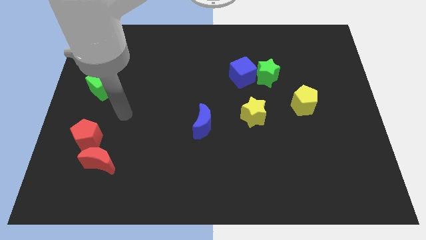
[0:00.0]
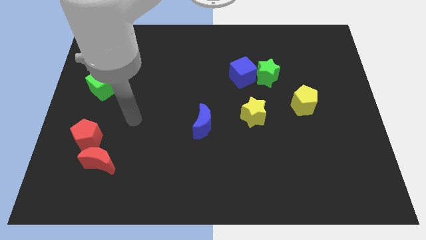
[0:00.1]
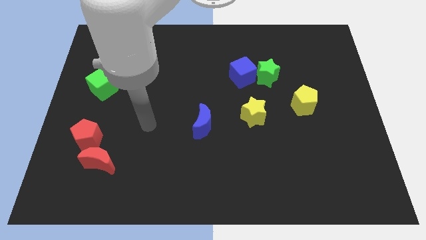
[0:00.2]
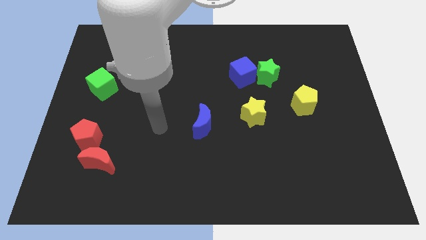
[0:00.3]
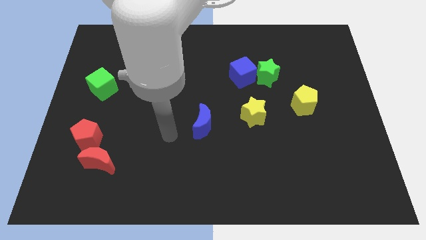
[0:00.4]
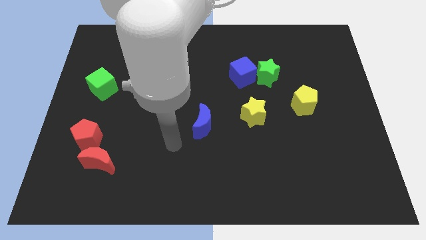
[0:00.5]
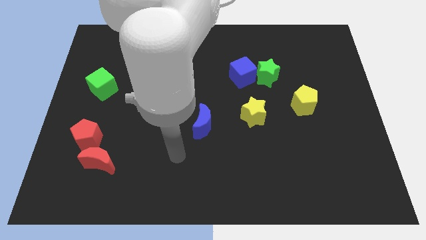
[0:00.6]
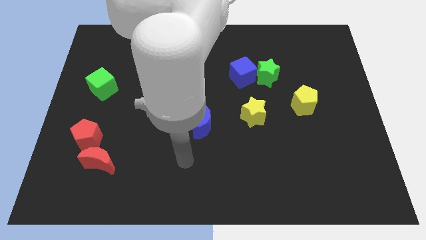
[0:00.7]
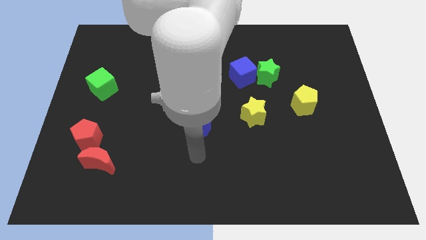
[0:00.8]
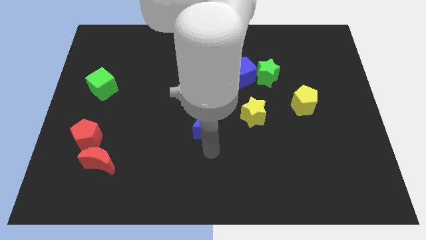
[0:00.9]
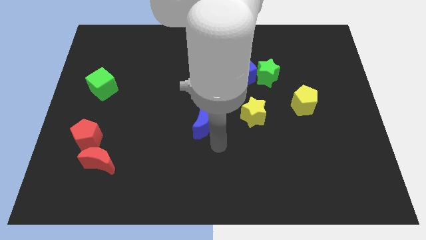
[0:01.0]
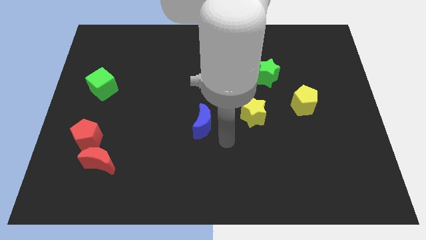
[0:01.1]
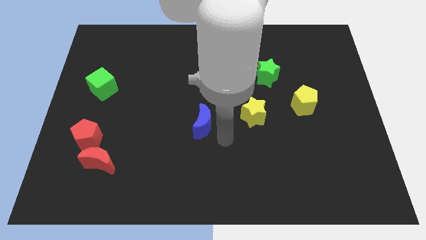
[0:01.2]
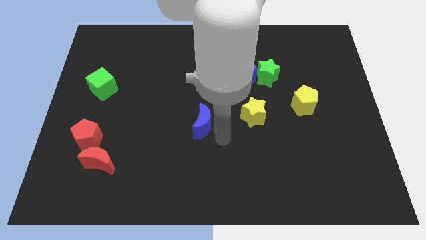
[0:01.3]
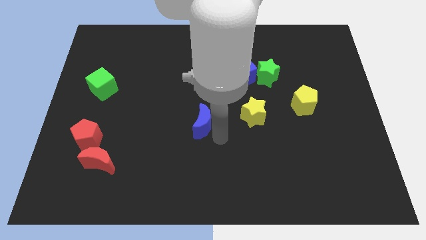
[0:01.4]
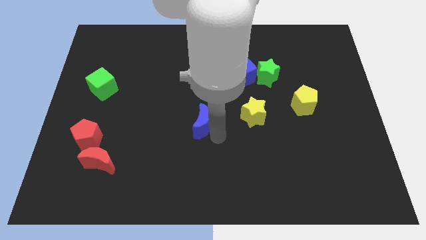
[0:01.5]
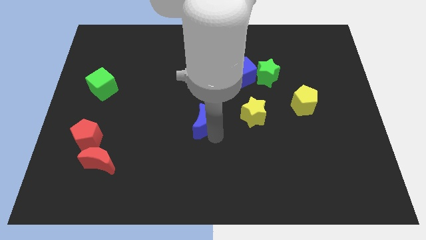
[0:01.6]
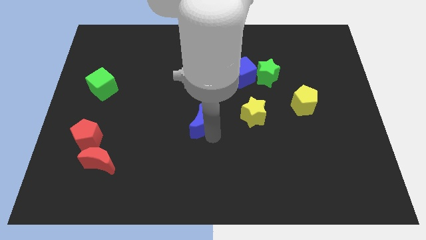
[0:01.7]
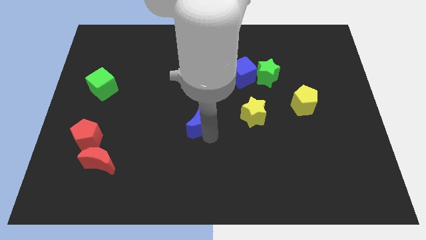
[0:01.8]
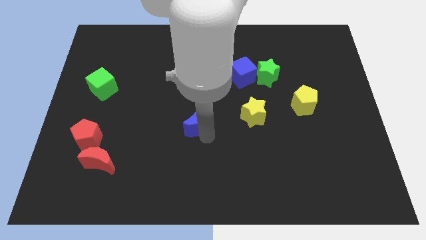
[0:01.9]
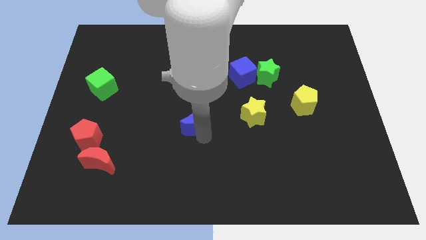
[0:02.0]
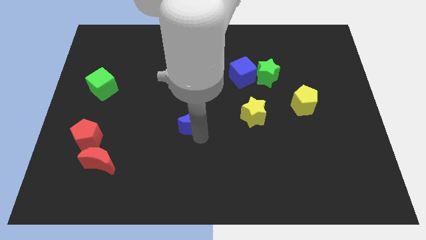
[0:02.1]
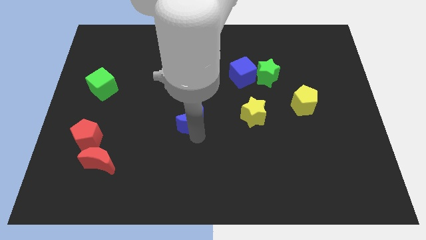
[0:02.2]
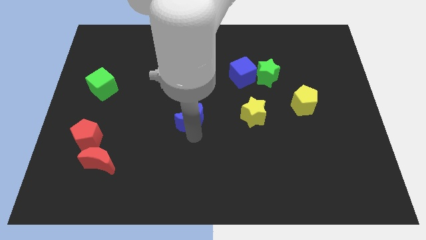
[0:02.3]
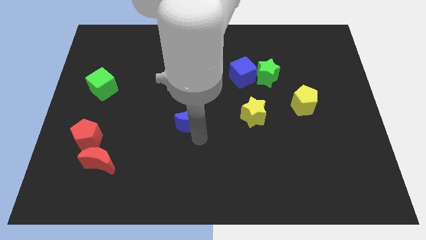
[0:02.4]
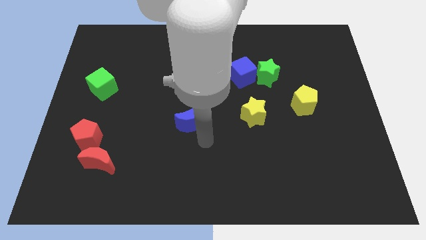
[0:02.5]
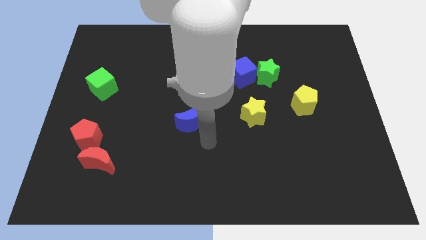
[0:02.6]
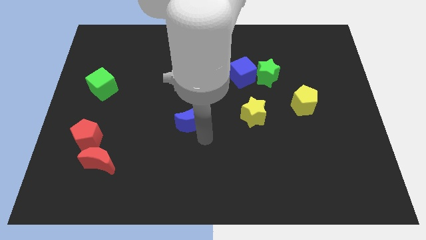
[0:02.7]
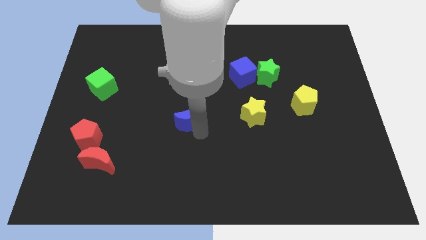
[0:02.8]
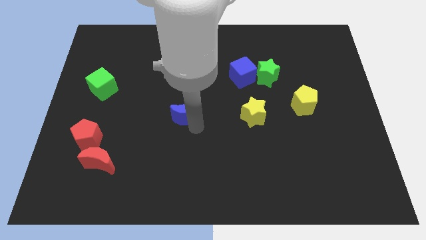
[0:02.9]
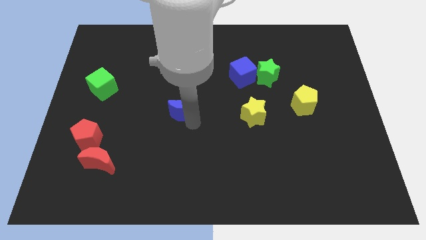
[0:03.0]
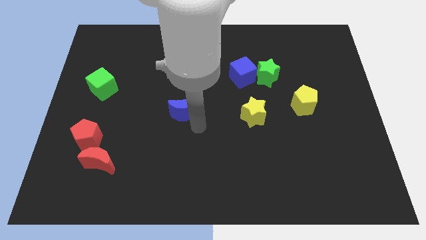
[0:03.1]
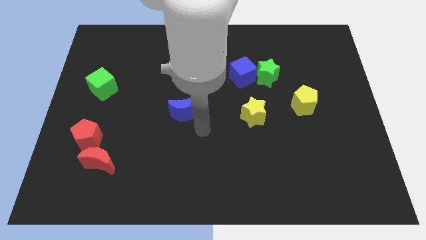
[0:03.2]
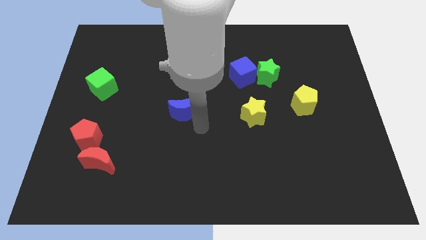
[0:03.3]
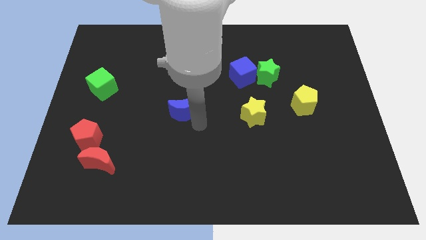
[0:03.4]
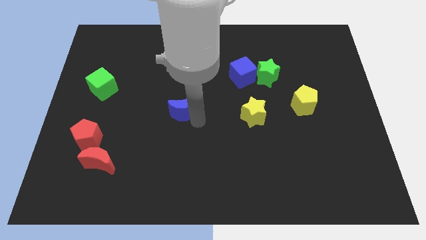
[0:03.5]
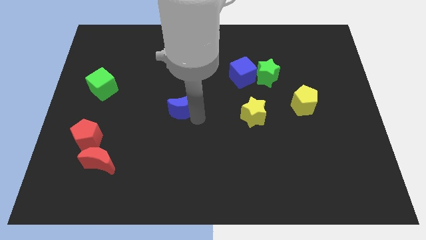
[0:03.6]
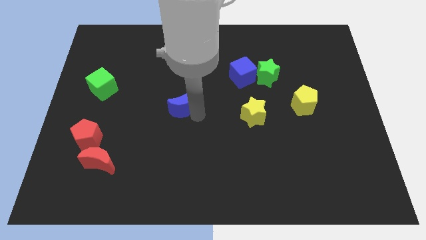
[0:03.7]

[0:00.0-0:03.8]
move the blue moon diagonally up and left a little bit

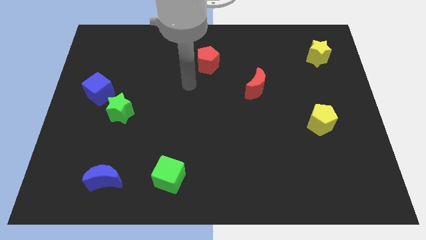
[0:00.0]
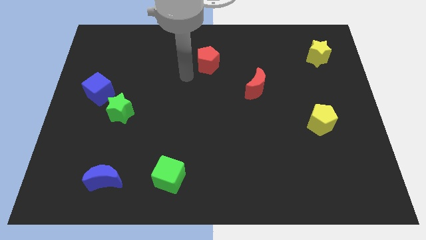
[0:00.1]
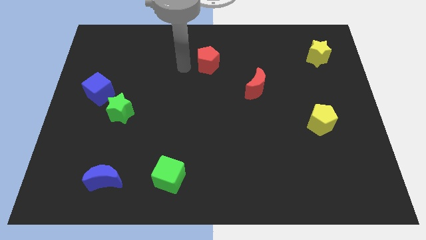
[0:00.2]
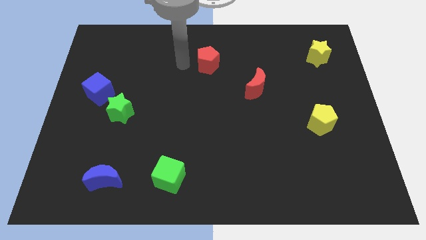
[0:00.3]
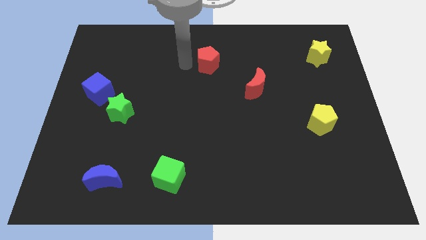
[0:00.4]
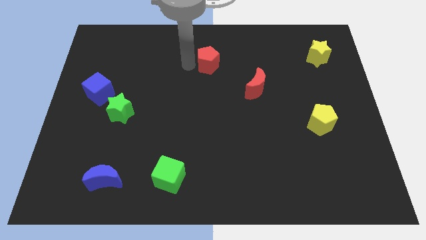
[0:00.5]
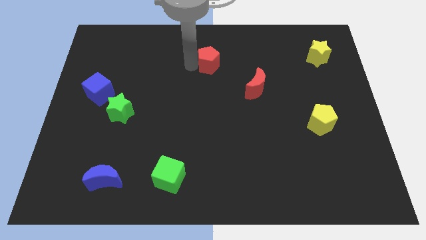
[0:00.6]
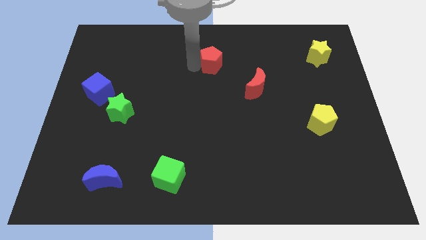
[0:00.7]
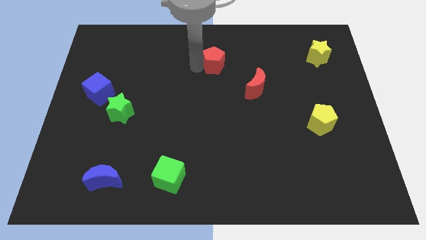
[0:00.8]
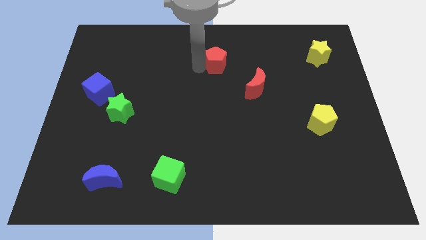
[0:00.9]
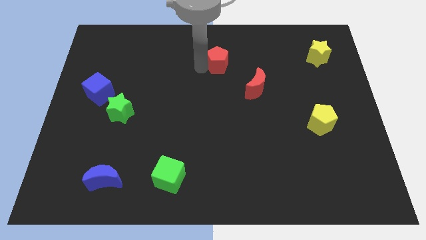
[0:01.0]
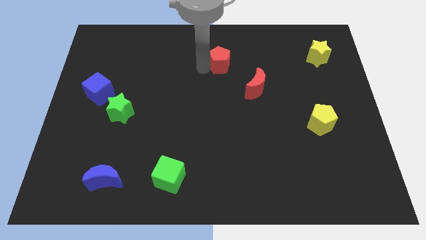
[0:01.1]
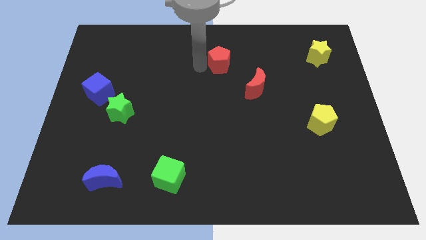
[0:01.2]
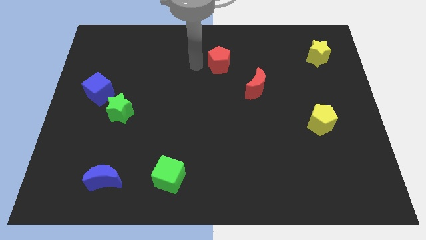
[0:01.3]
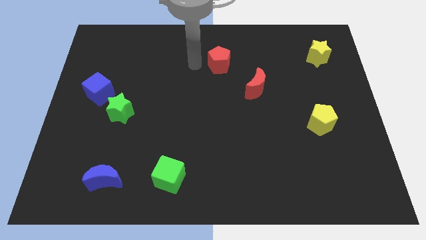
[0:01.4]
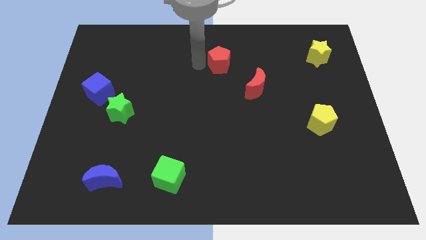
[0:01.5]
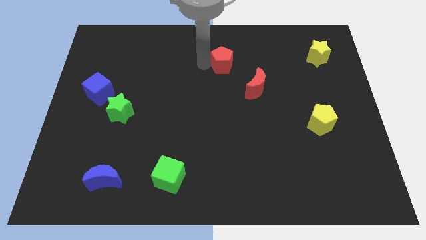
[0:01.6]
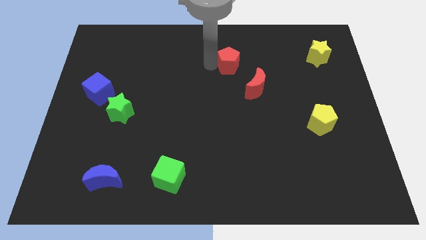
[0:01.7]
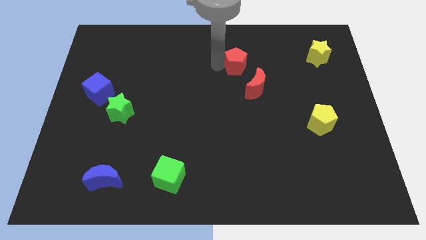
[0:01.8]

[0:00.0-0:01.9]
move the red pentagon a little right

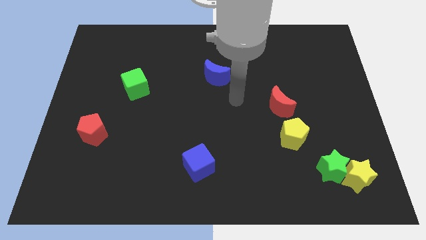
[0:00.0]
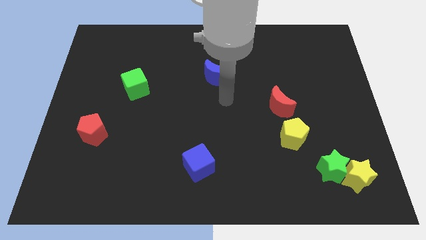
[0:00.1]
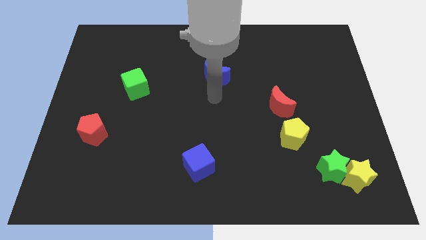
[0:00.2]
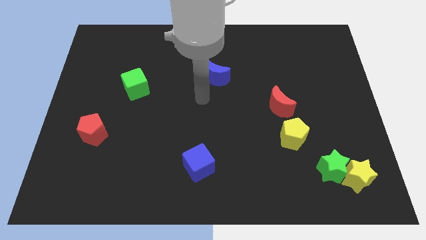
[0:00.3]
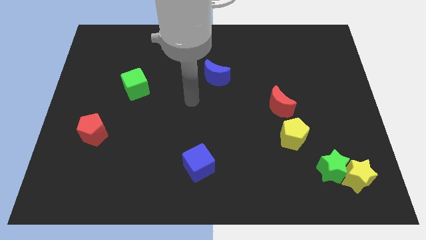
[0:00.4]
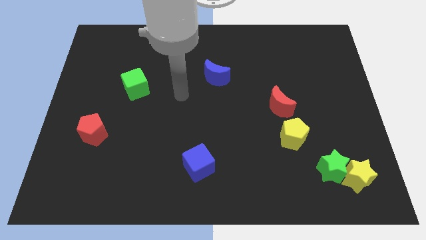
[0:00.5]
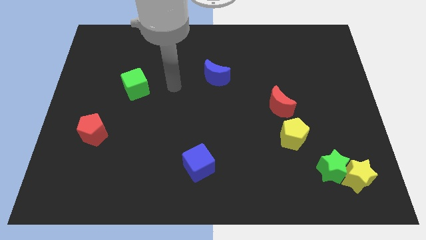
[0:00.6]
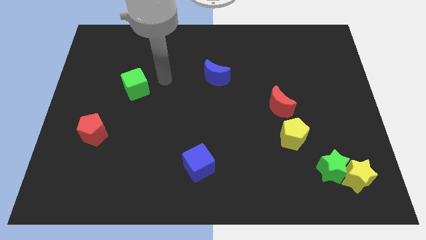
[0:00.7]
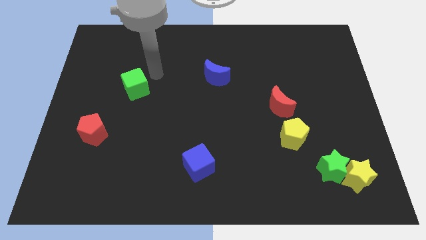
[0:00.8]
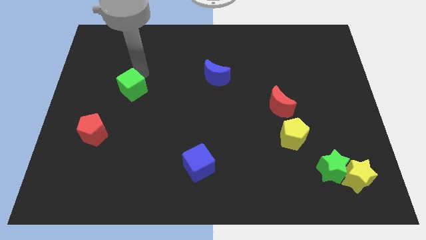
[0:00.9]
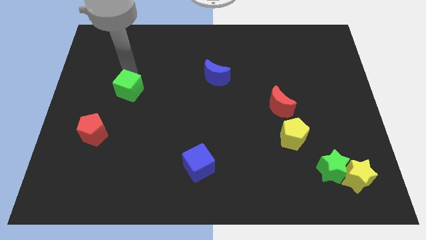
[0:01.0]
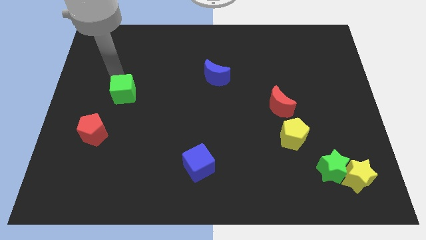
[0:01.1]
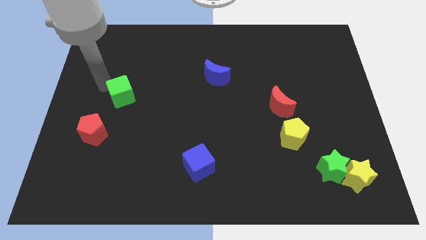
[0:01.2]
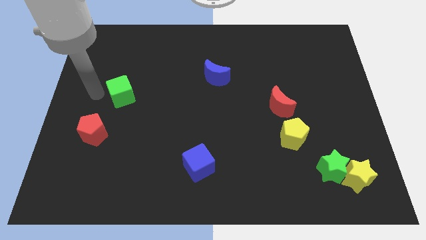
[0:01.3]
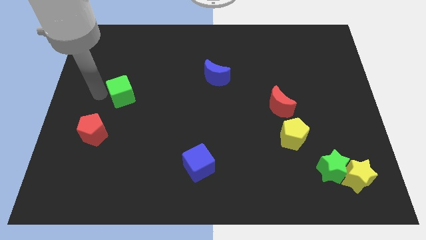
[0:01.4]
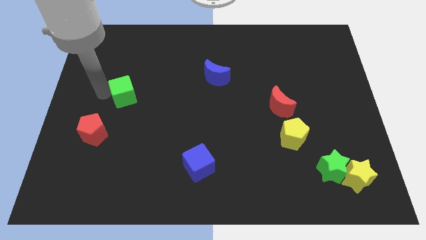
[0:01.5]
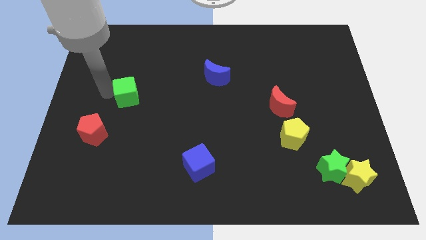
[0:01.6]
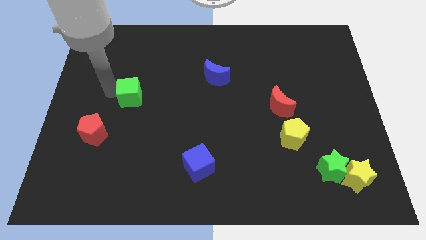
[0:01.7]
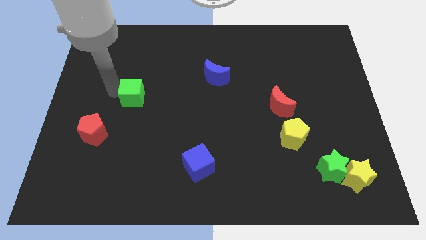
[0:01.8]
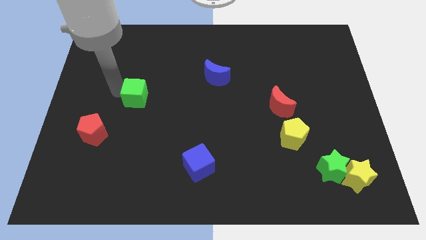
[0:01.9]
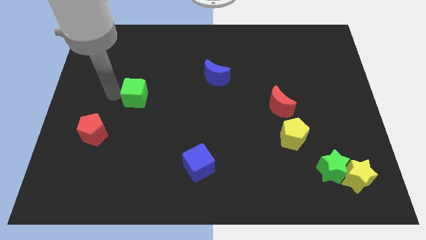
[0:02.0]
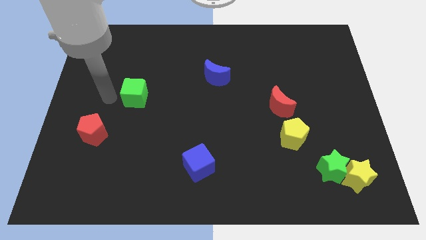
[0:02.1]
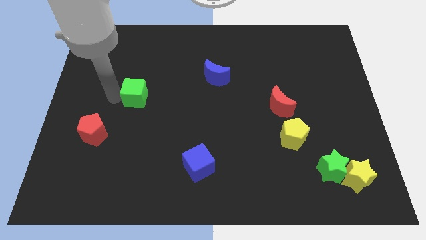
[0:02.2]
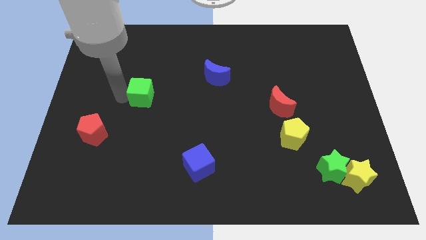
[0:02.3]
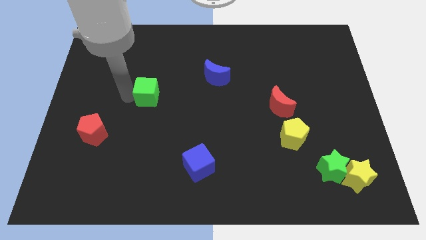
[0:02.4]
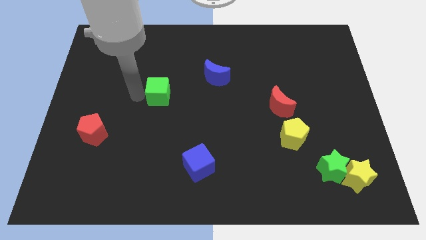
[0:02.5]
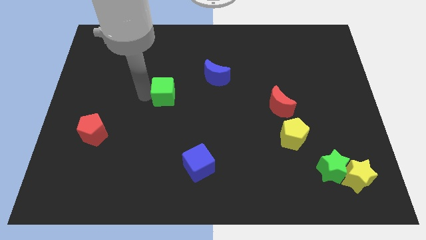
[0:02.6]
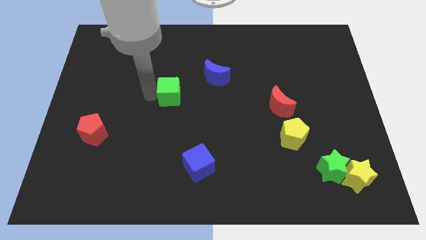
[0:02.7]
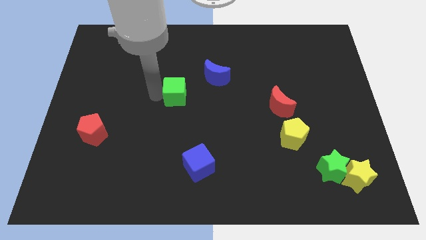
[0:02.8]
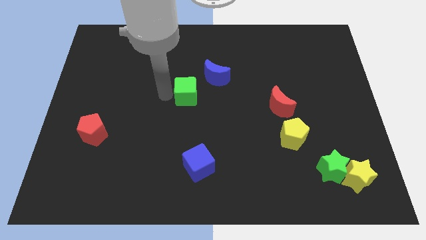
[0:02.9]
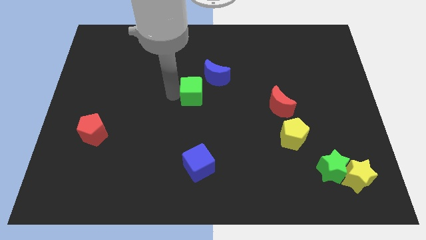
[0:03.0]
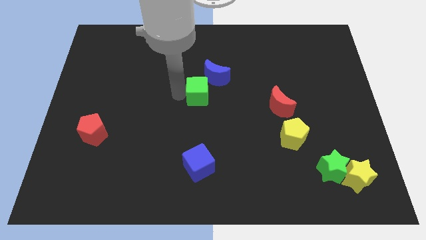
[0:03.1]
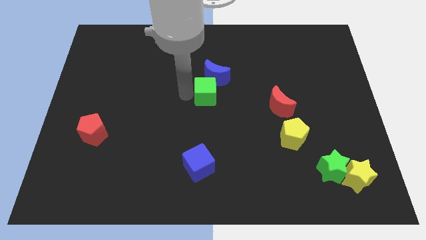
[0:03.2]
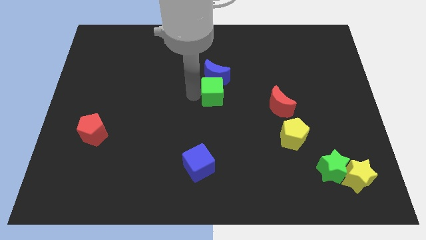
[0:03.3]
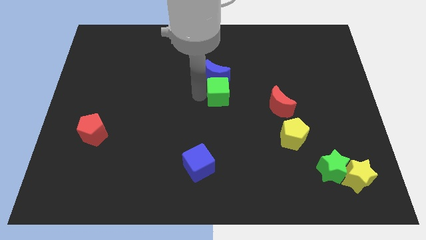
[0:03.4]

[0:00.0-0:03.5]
move the green cube to the right
